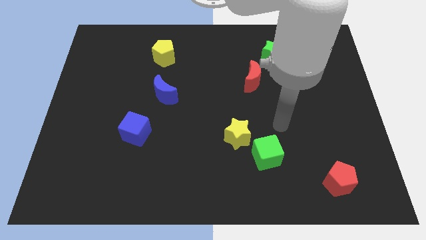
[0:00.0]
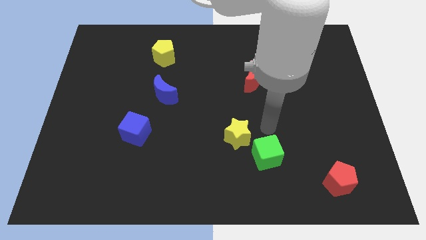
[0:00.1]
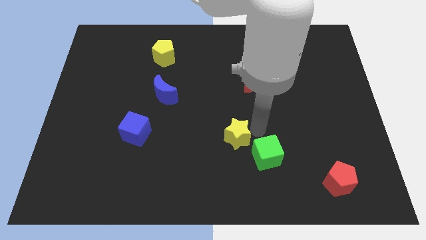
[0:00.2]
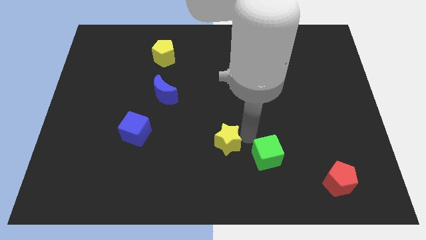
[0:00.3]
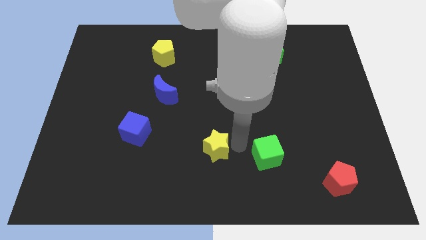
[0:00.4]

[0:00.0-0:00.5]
move the green cube away from the yellow star

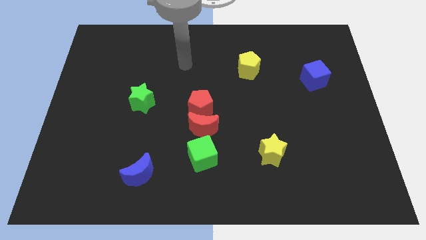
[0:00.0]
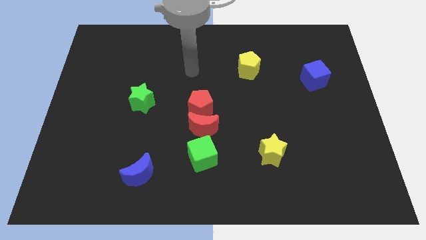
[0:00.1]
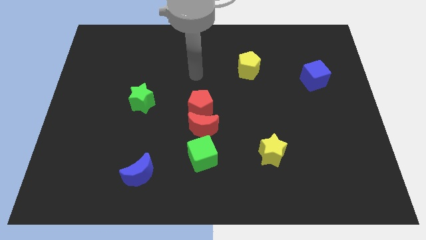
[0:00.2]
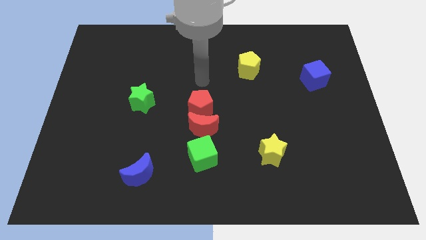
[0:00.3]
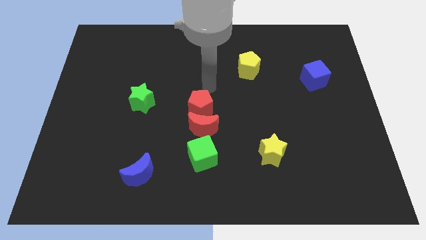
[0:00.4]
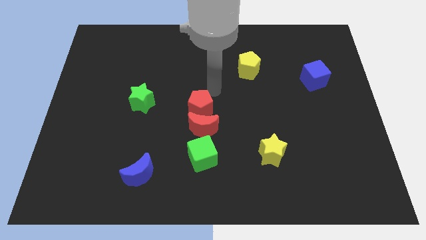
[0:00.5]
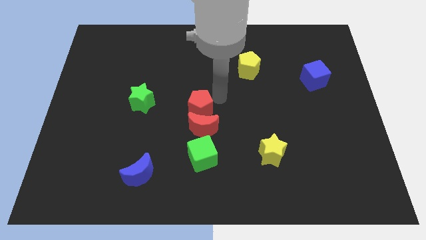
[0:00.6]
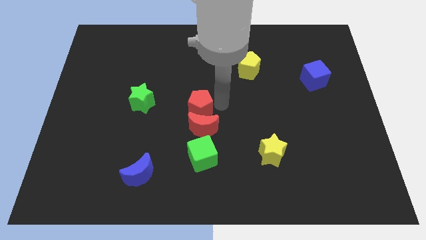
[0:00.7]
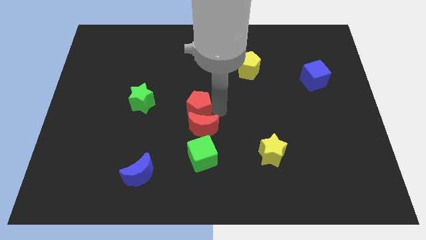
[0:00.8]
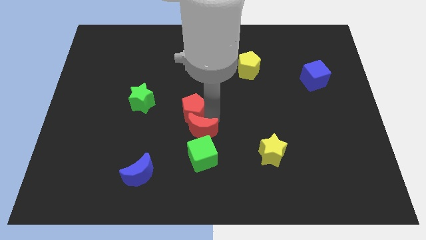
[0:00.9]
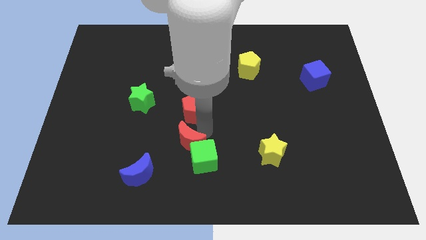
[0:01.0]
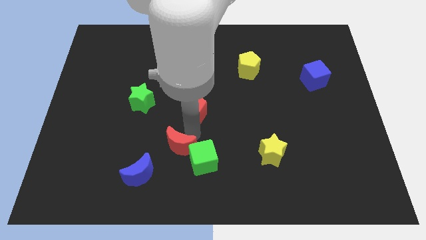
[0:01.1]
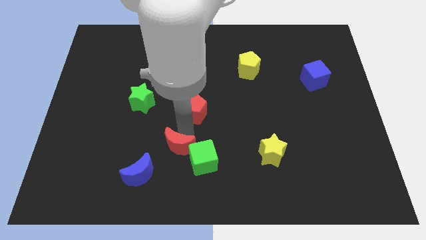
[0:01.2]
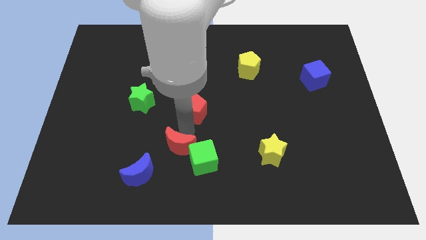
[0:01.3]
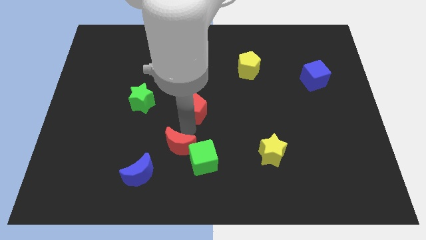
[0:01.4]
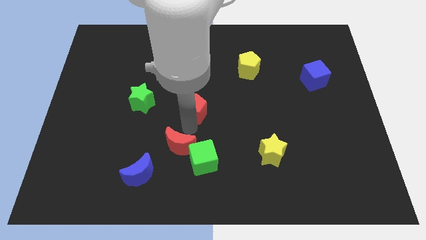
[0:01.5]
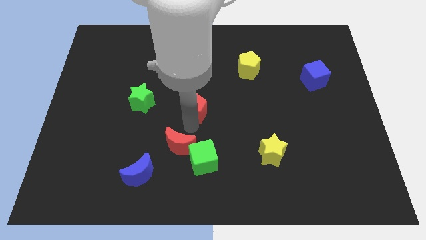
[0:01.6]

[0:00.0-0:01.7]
separate the red pentagon from the red moon

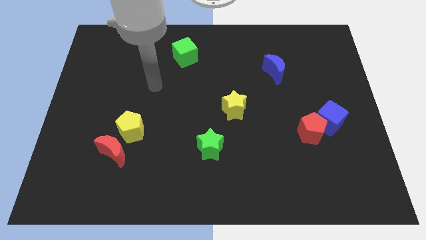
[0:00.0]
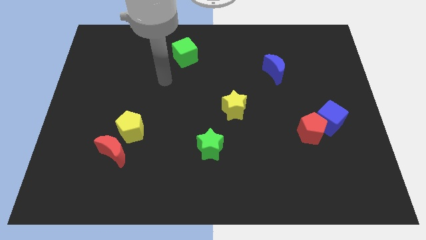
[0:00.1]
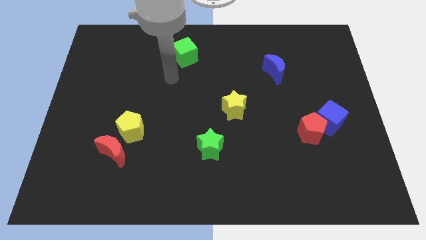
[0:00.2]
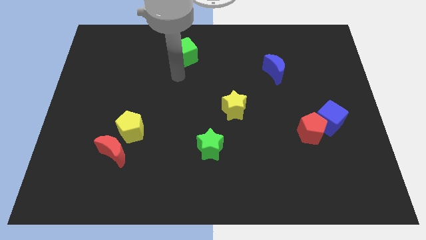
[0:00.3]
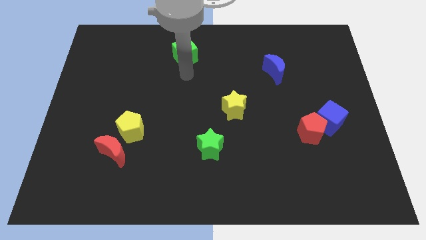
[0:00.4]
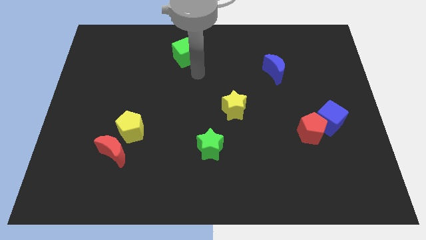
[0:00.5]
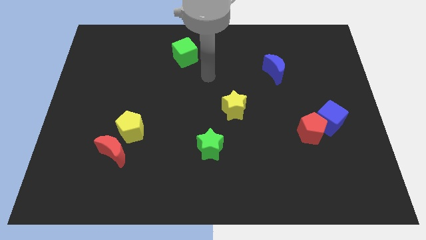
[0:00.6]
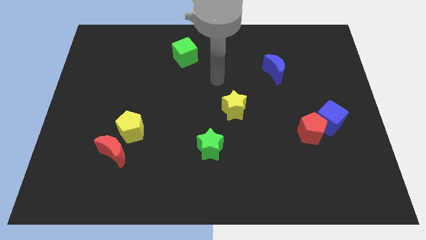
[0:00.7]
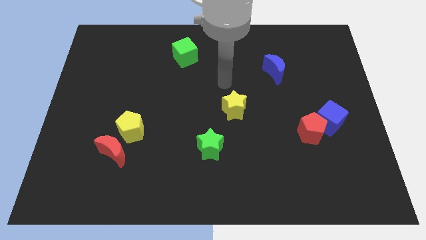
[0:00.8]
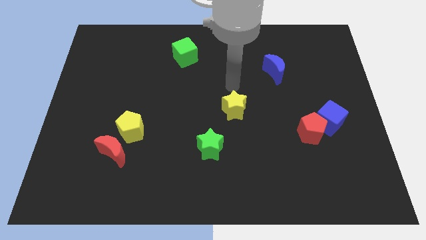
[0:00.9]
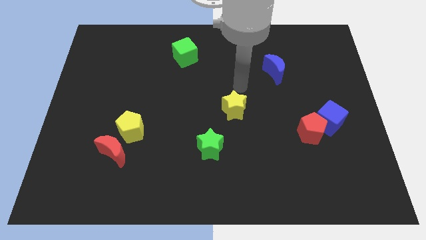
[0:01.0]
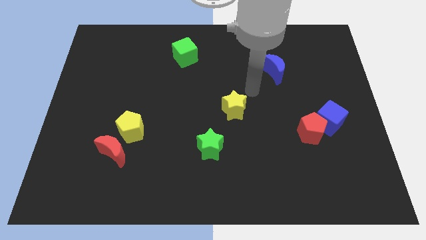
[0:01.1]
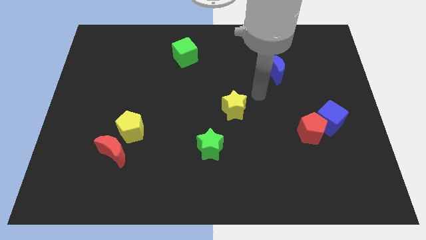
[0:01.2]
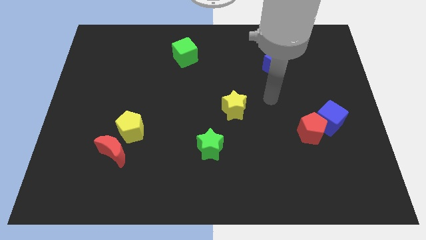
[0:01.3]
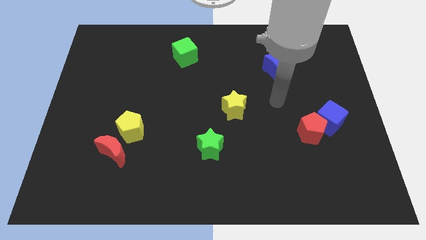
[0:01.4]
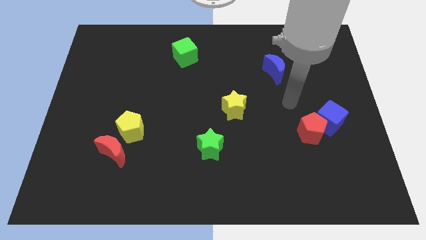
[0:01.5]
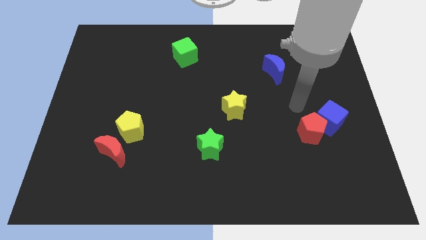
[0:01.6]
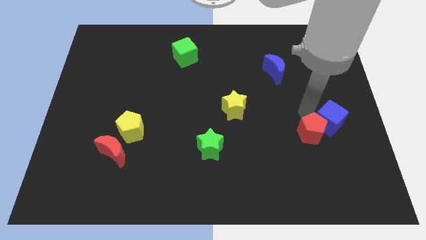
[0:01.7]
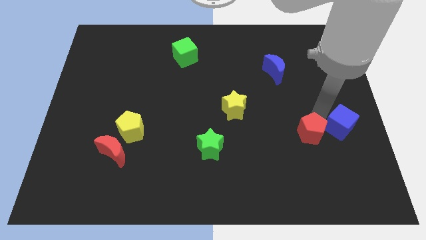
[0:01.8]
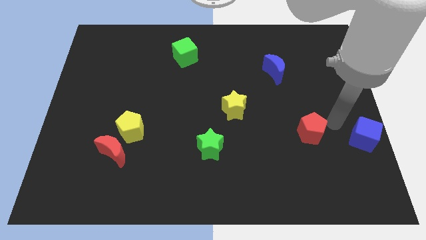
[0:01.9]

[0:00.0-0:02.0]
pull the red pentagon apart from the blue cube

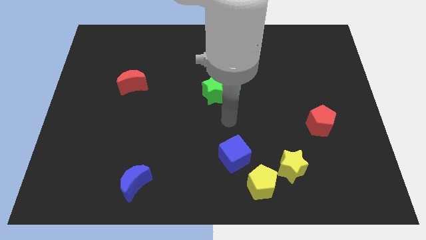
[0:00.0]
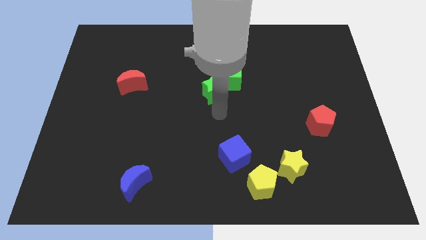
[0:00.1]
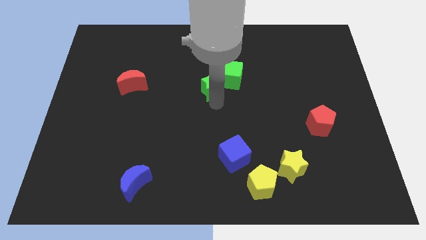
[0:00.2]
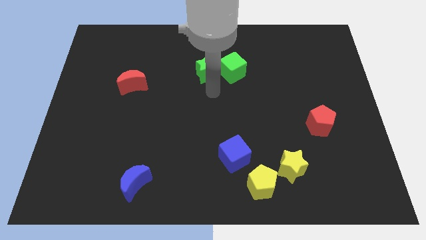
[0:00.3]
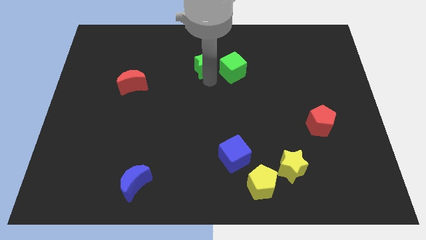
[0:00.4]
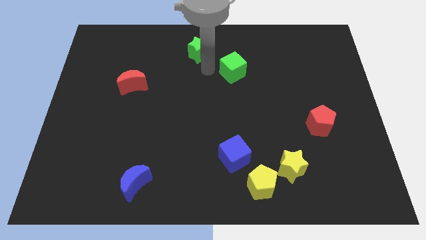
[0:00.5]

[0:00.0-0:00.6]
pull the green cube apart from the green star

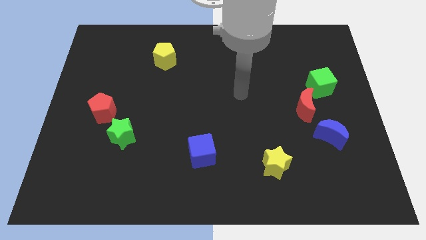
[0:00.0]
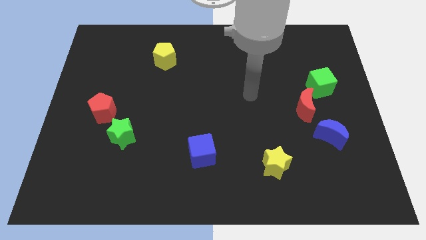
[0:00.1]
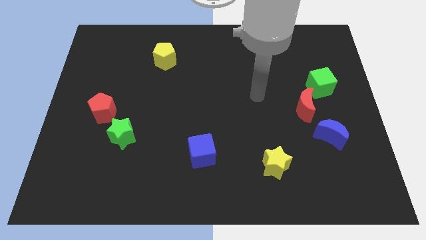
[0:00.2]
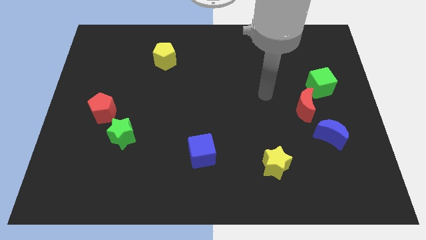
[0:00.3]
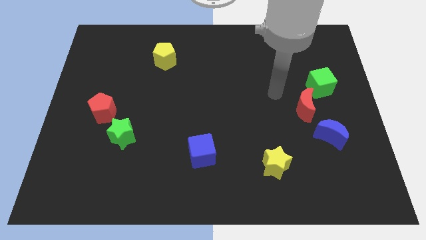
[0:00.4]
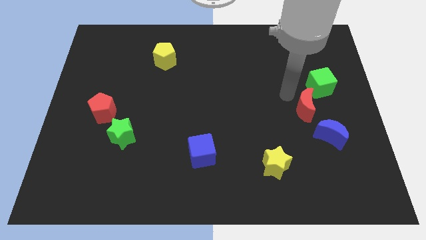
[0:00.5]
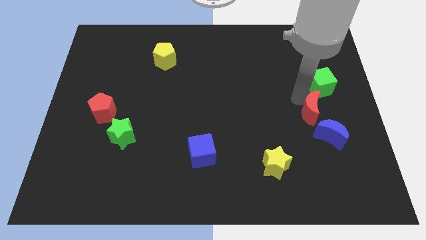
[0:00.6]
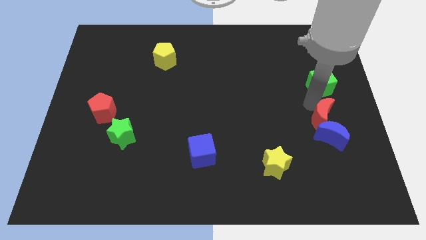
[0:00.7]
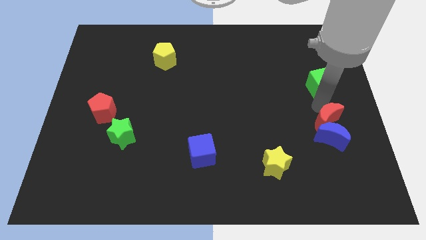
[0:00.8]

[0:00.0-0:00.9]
pull the green cube apart from the red moon

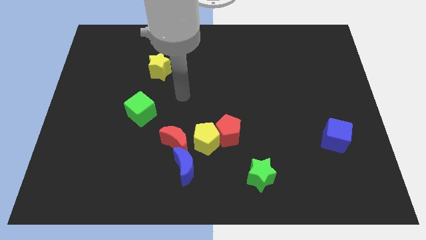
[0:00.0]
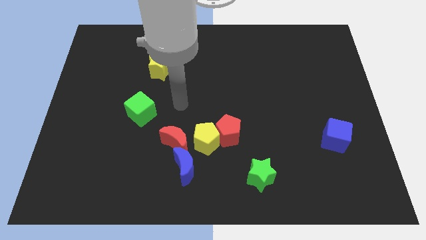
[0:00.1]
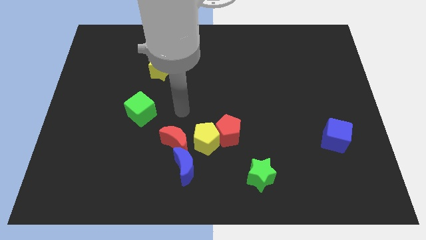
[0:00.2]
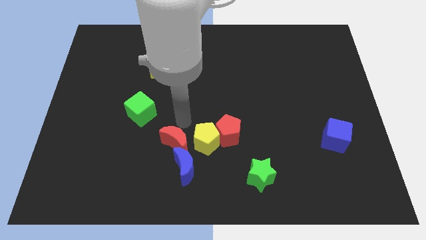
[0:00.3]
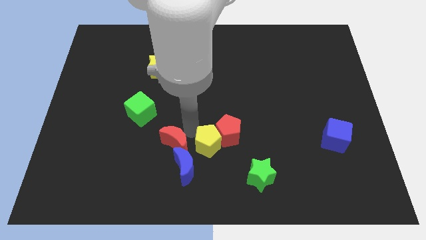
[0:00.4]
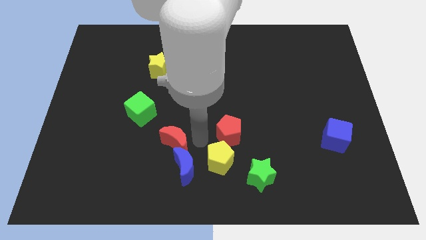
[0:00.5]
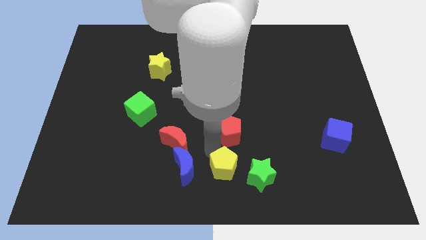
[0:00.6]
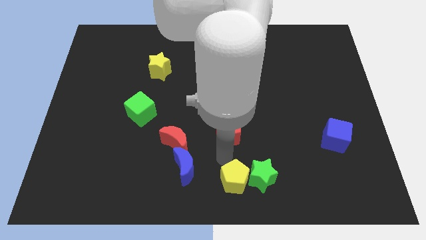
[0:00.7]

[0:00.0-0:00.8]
separate the red pentagon from the yellow pentagon

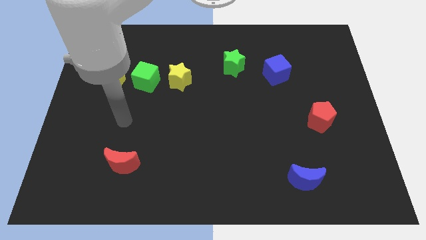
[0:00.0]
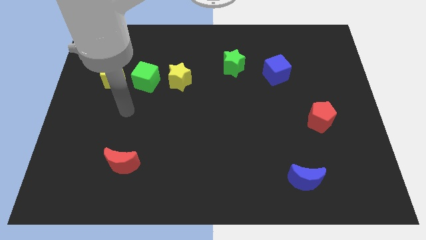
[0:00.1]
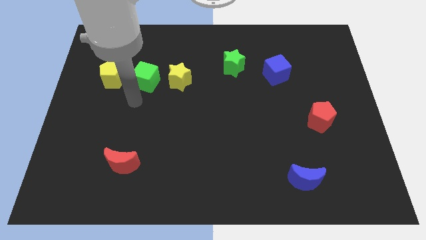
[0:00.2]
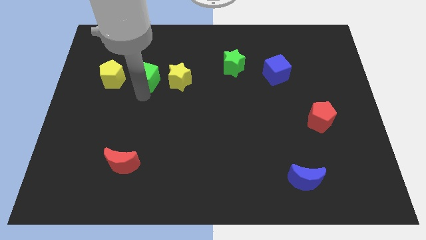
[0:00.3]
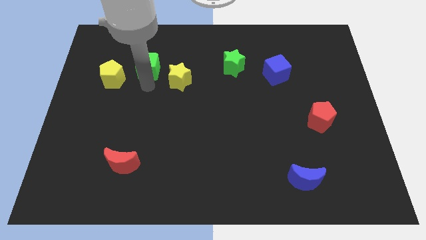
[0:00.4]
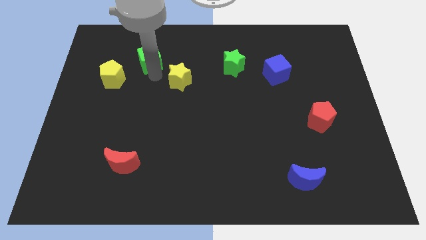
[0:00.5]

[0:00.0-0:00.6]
pull the yellow star apart from the green cube

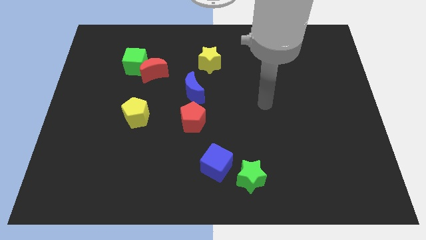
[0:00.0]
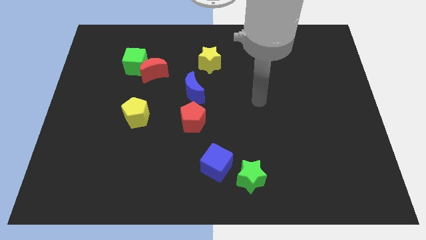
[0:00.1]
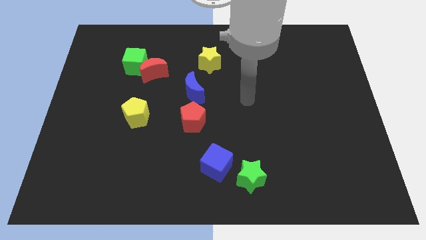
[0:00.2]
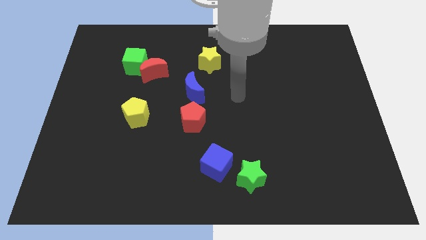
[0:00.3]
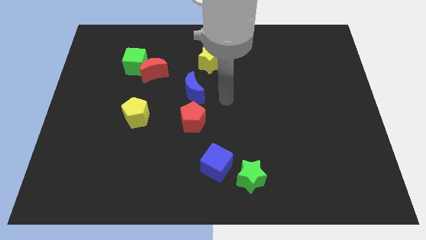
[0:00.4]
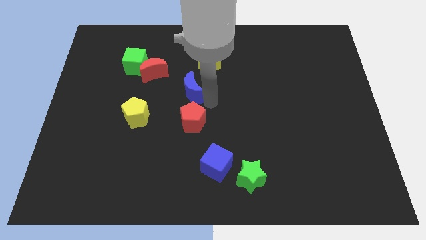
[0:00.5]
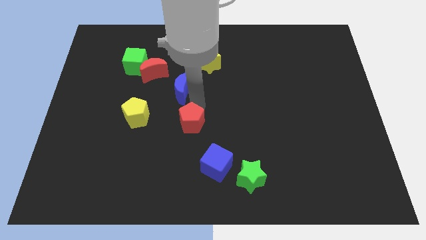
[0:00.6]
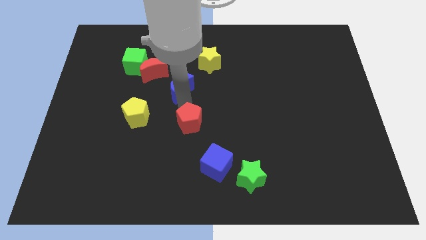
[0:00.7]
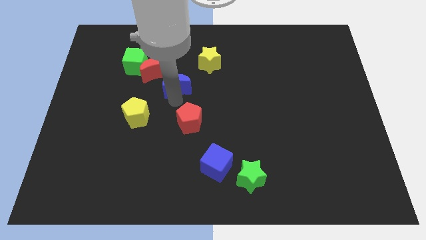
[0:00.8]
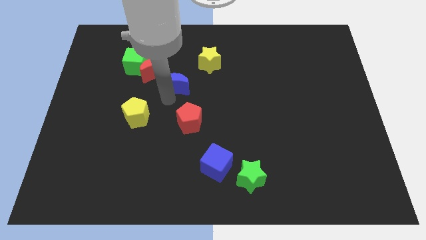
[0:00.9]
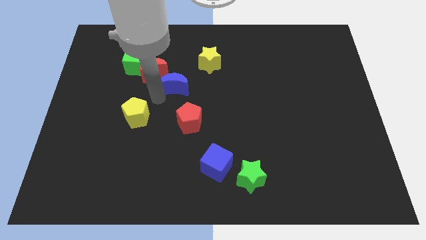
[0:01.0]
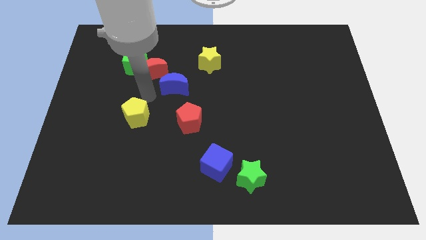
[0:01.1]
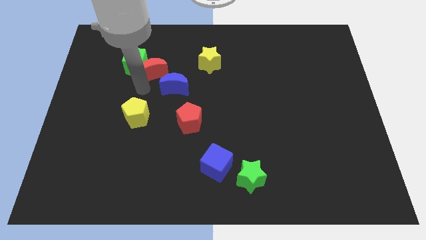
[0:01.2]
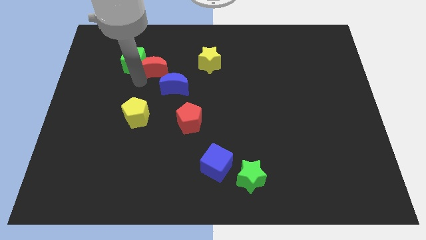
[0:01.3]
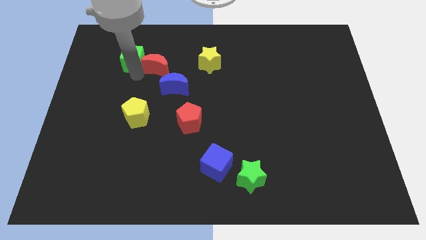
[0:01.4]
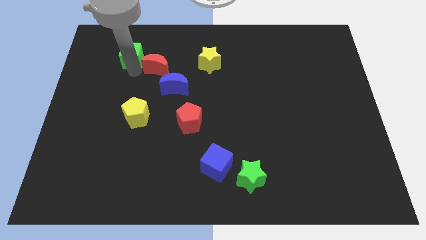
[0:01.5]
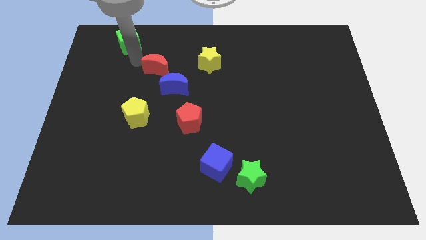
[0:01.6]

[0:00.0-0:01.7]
pull the red moon apart from the green cube

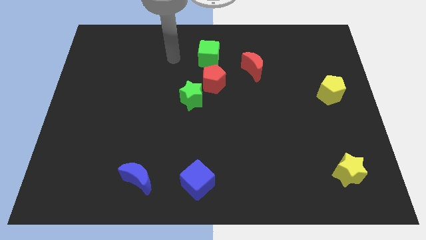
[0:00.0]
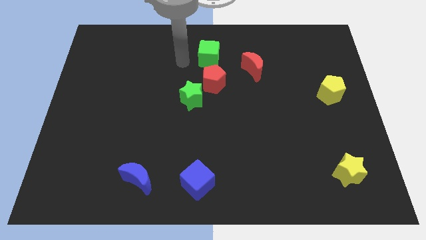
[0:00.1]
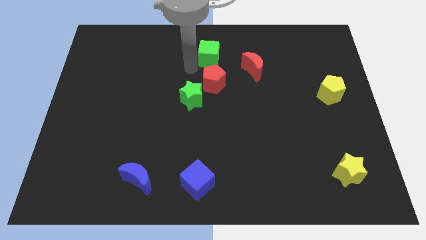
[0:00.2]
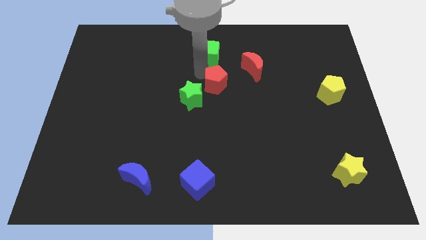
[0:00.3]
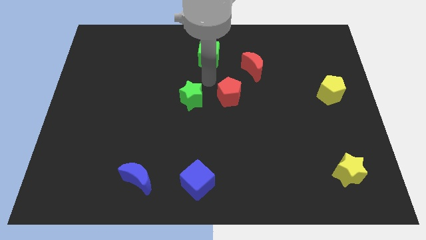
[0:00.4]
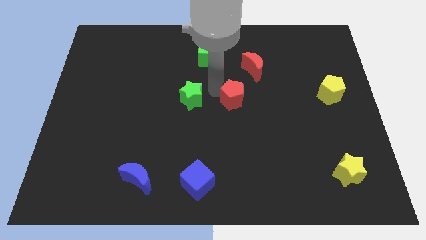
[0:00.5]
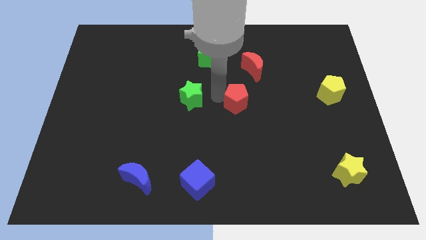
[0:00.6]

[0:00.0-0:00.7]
pull the green star apart from the red pentagon

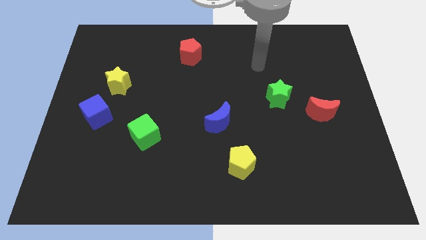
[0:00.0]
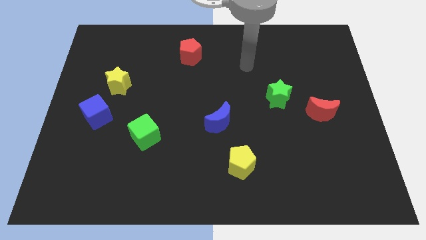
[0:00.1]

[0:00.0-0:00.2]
separate the blue cube from the yellow star
